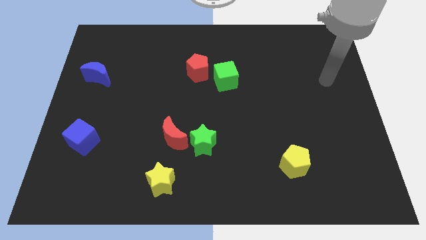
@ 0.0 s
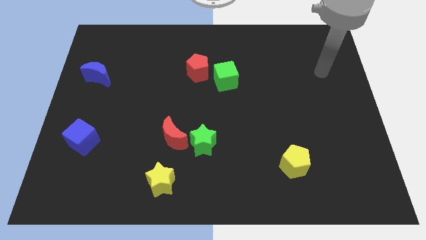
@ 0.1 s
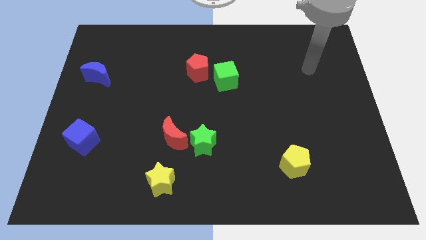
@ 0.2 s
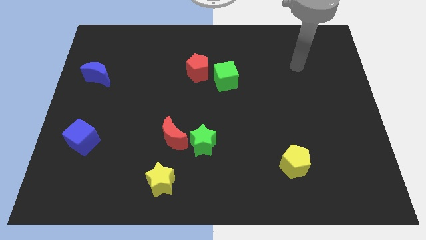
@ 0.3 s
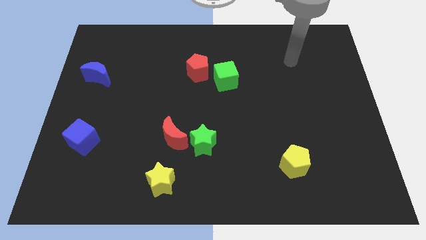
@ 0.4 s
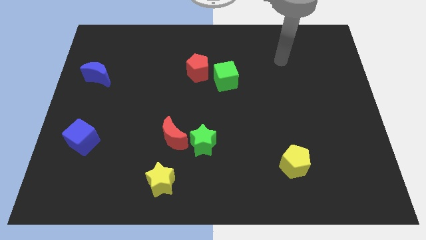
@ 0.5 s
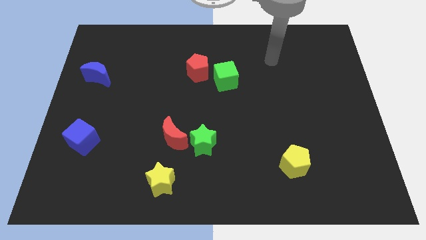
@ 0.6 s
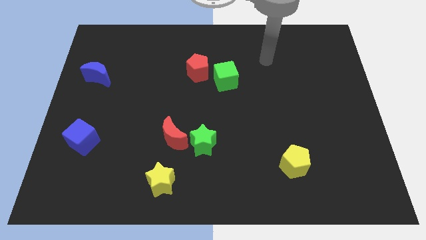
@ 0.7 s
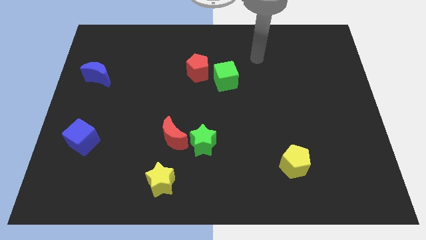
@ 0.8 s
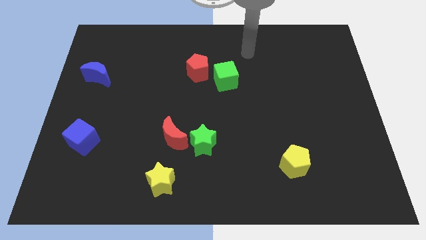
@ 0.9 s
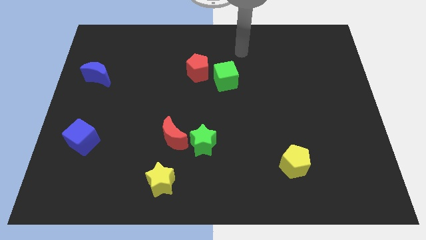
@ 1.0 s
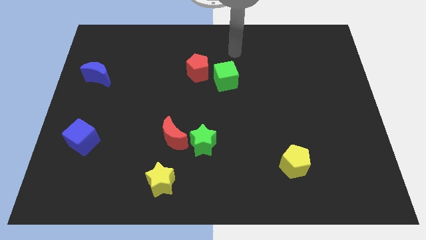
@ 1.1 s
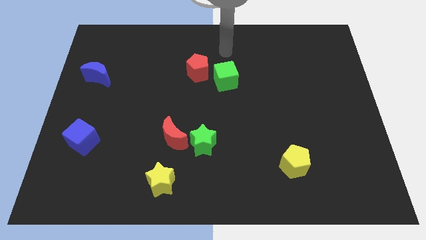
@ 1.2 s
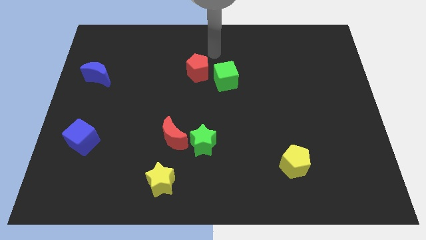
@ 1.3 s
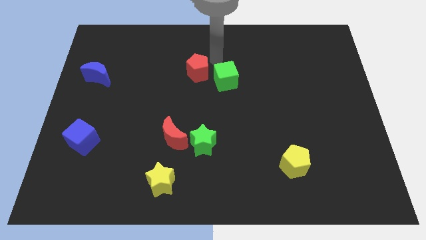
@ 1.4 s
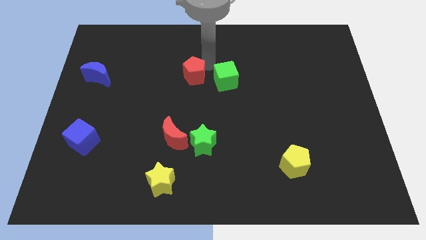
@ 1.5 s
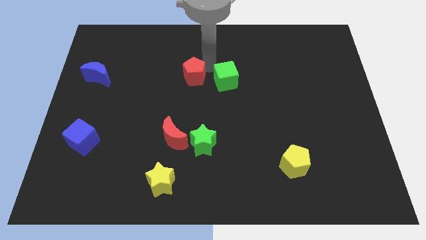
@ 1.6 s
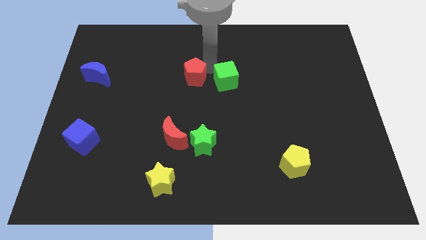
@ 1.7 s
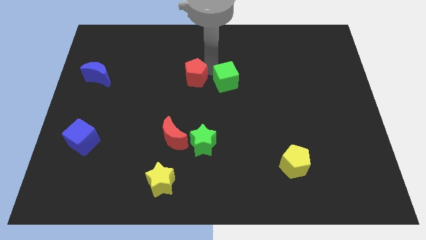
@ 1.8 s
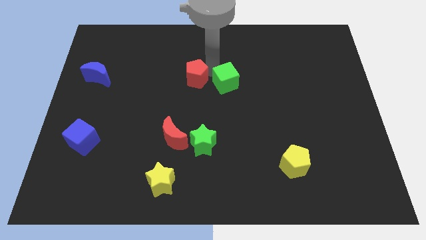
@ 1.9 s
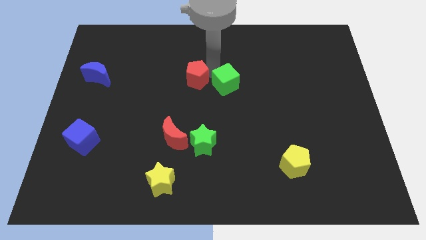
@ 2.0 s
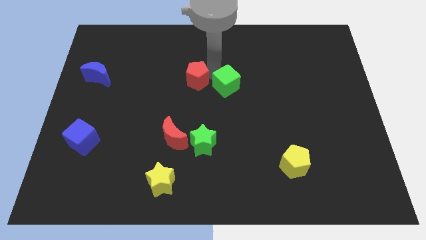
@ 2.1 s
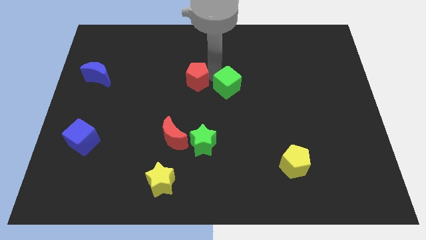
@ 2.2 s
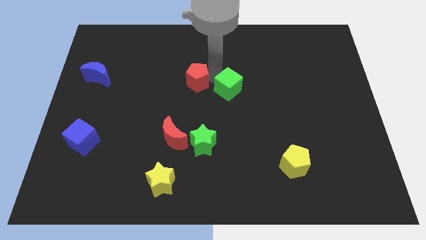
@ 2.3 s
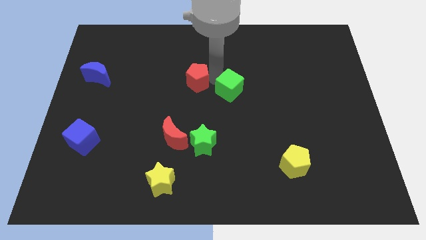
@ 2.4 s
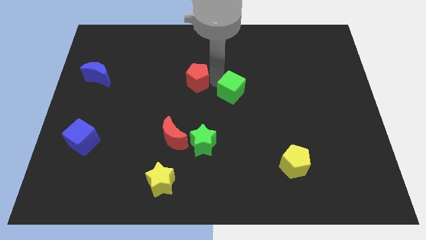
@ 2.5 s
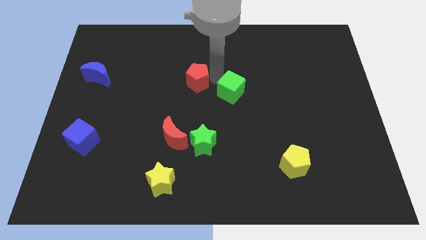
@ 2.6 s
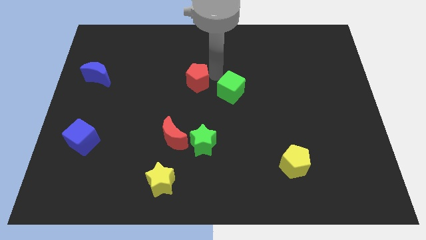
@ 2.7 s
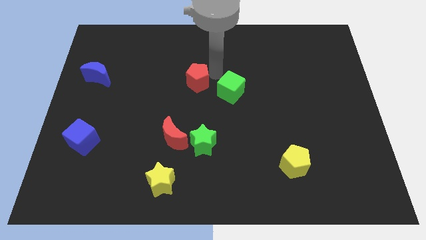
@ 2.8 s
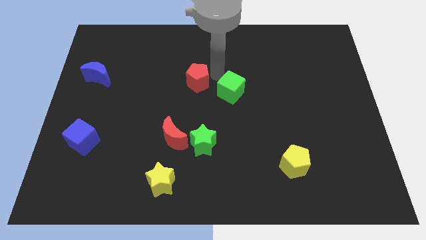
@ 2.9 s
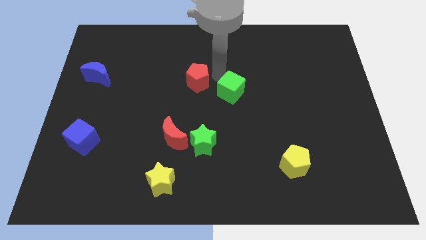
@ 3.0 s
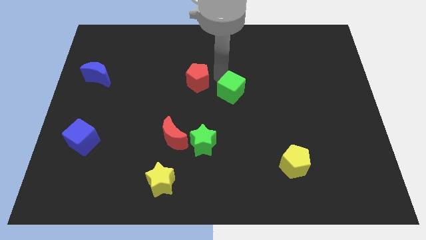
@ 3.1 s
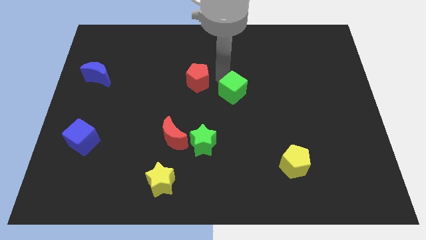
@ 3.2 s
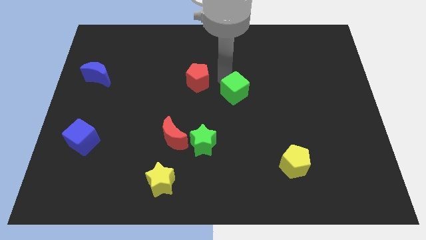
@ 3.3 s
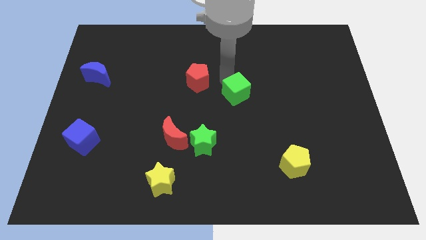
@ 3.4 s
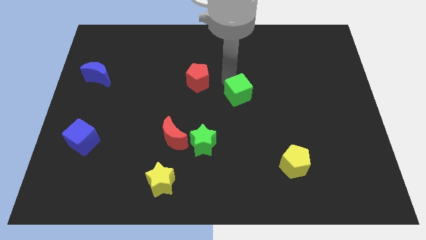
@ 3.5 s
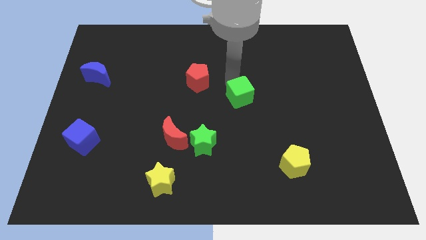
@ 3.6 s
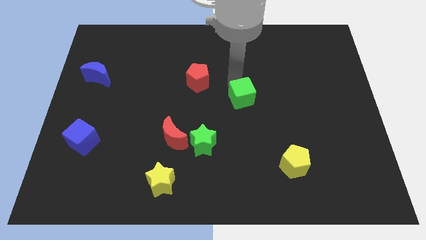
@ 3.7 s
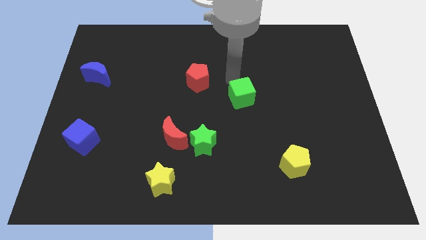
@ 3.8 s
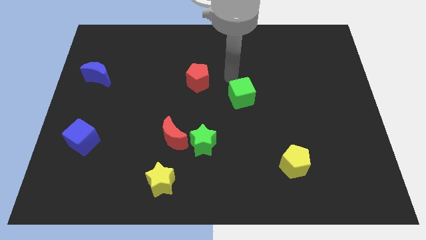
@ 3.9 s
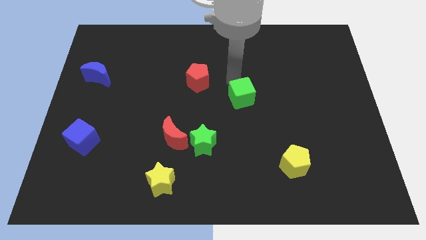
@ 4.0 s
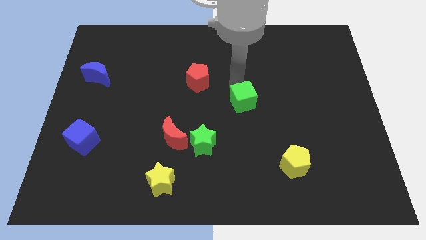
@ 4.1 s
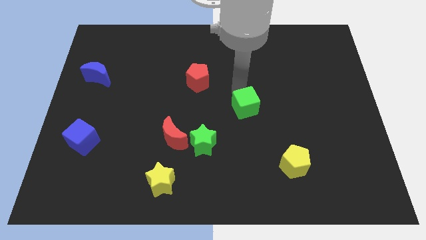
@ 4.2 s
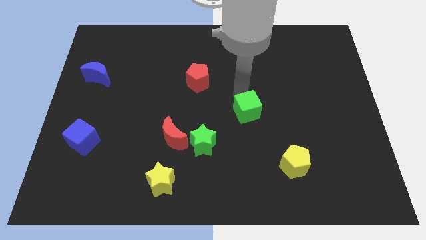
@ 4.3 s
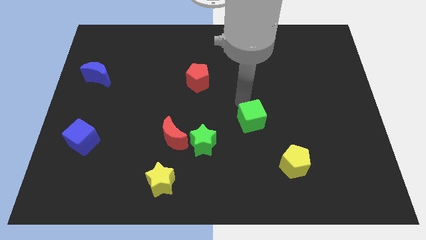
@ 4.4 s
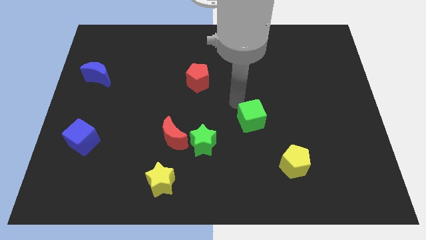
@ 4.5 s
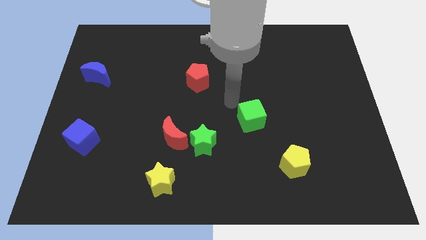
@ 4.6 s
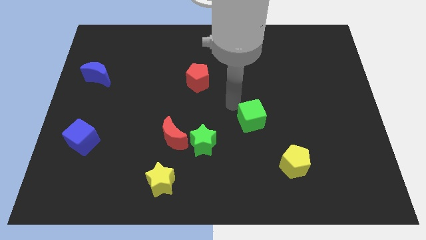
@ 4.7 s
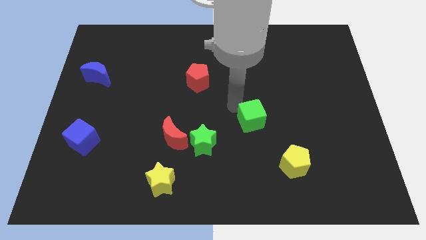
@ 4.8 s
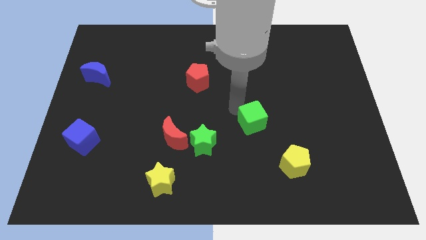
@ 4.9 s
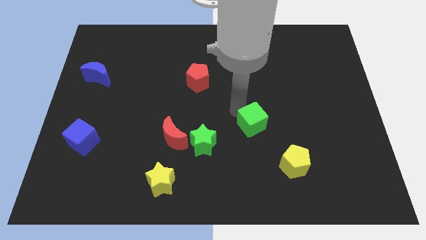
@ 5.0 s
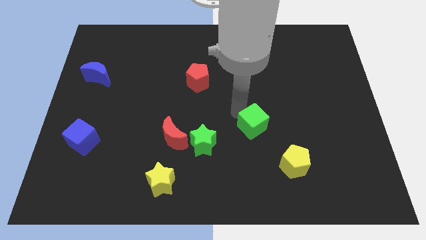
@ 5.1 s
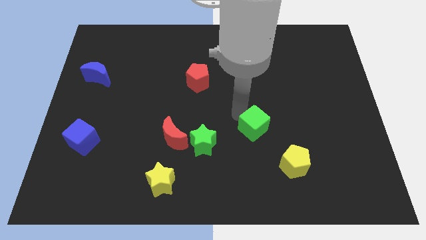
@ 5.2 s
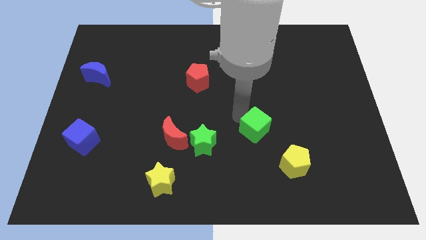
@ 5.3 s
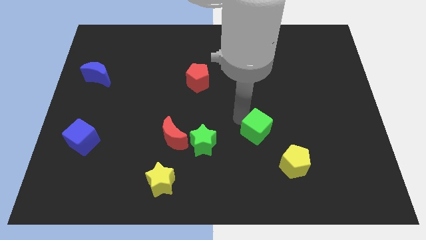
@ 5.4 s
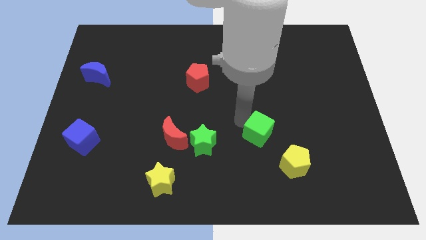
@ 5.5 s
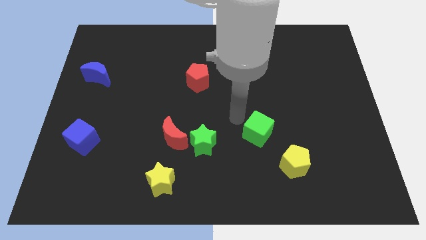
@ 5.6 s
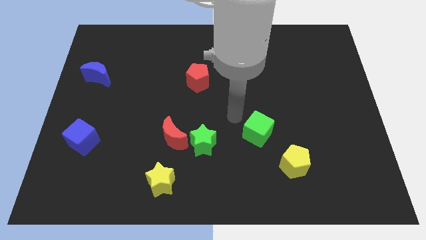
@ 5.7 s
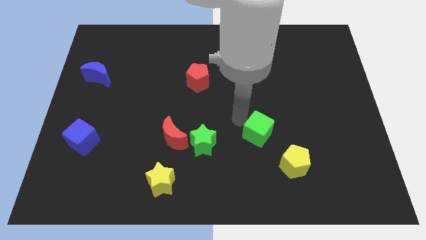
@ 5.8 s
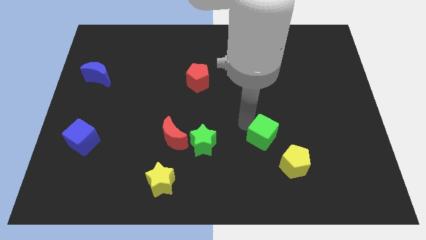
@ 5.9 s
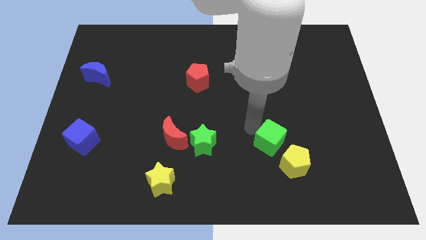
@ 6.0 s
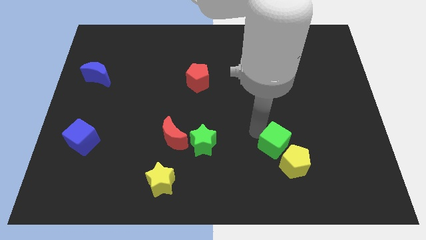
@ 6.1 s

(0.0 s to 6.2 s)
move the green cube close to the yellow pentagon

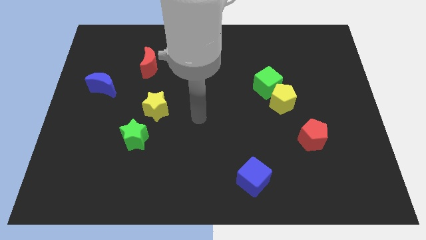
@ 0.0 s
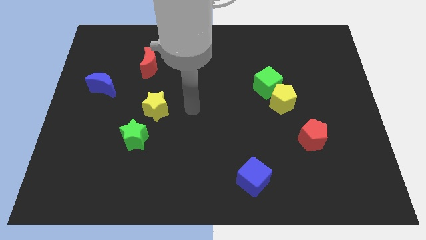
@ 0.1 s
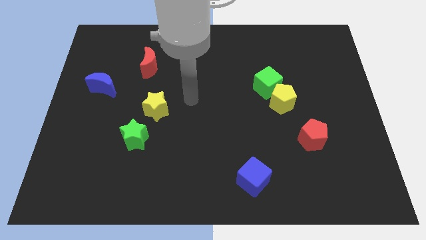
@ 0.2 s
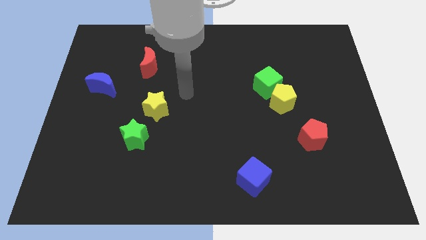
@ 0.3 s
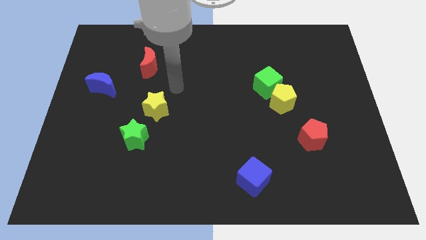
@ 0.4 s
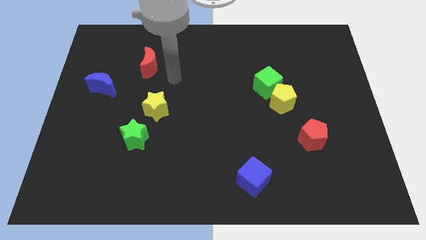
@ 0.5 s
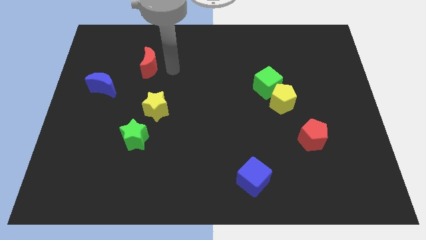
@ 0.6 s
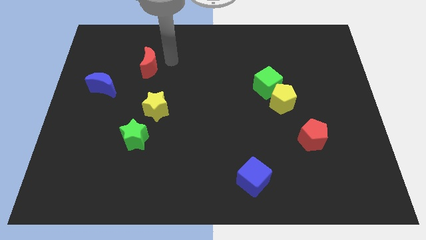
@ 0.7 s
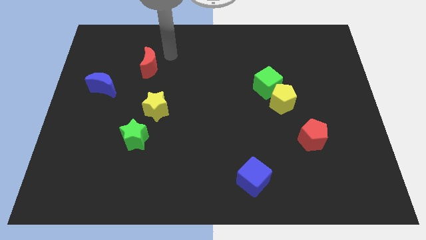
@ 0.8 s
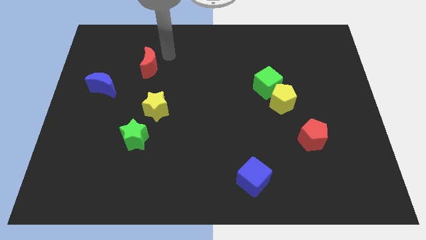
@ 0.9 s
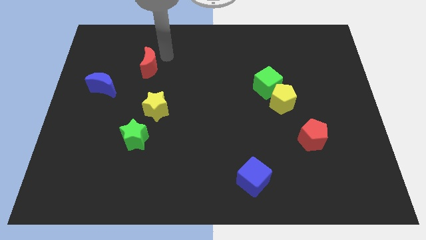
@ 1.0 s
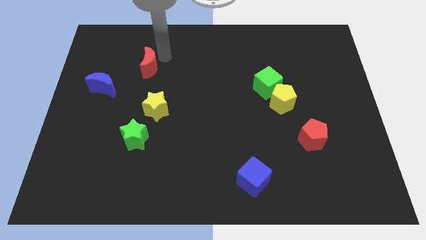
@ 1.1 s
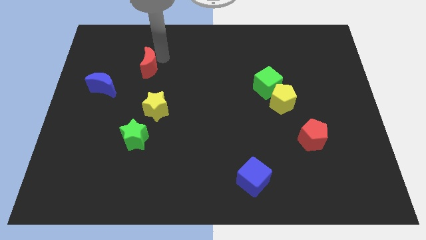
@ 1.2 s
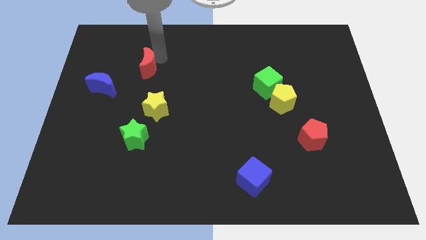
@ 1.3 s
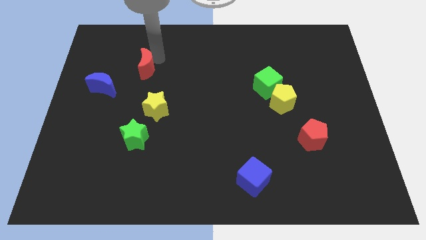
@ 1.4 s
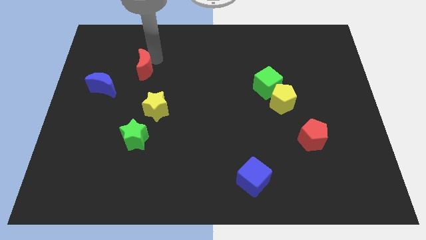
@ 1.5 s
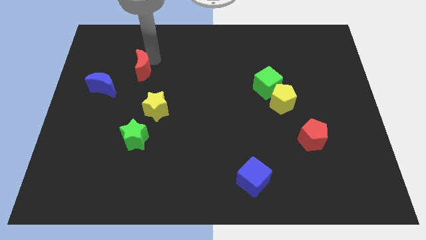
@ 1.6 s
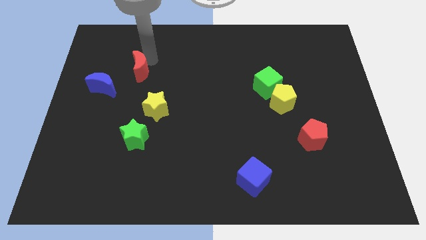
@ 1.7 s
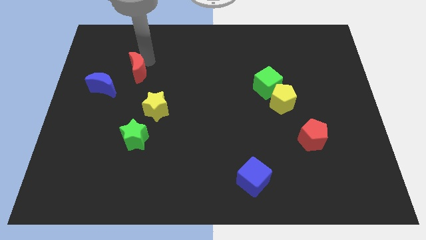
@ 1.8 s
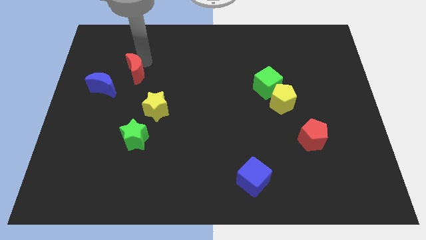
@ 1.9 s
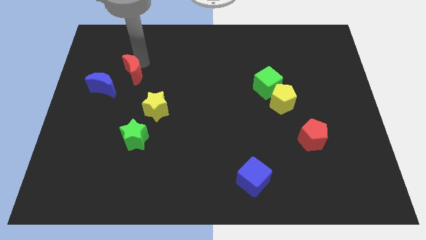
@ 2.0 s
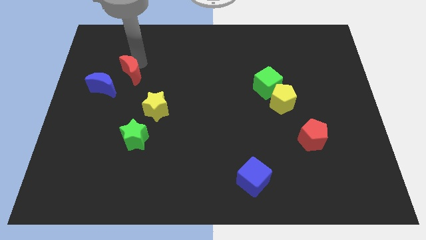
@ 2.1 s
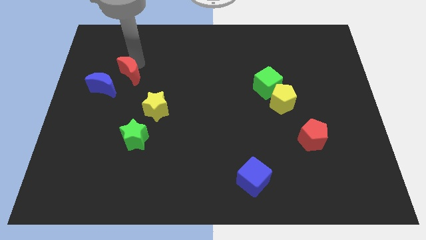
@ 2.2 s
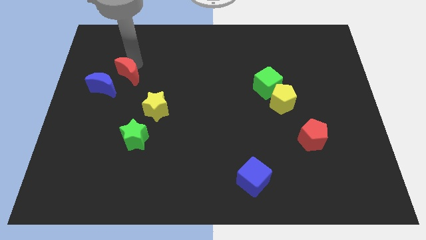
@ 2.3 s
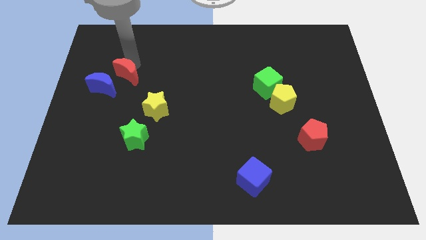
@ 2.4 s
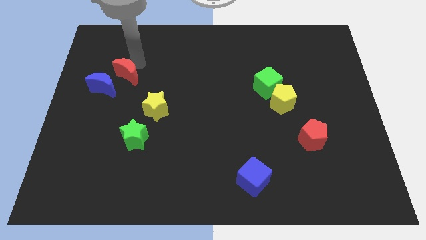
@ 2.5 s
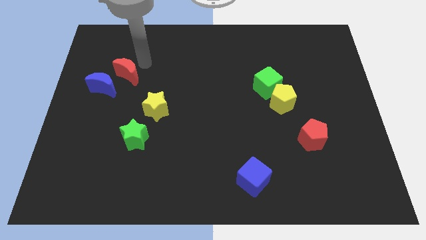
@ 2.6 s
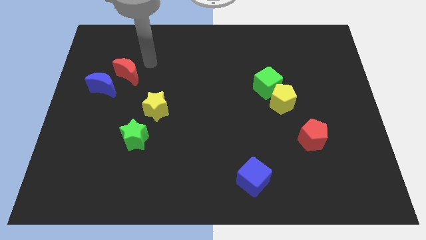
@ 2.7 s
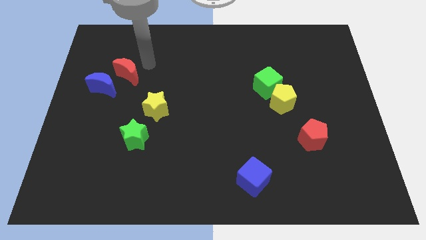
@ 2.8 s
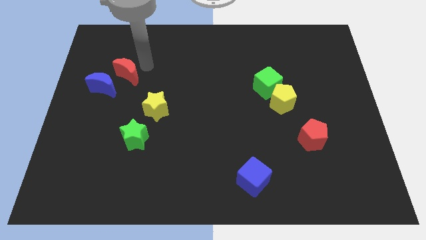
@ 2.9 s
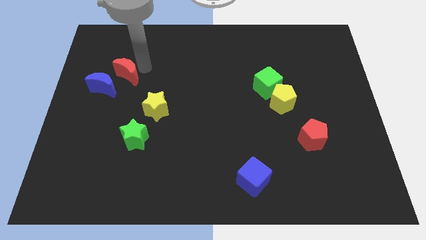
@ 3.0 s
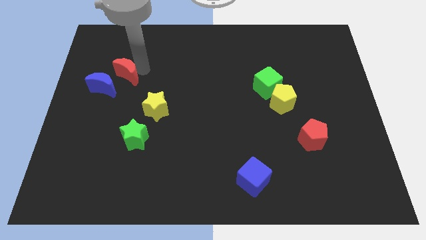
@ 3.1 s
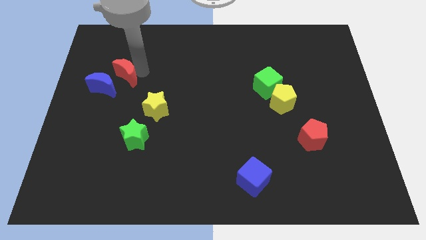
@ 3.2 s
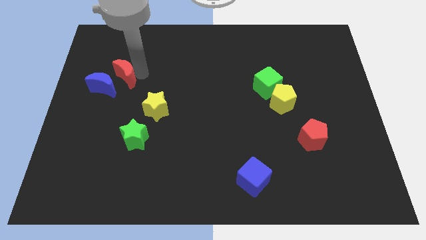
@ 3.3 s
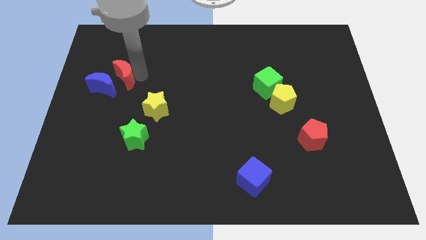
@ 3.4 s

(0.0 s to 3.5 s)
move the red moon to the blue moon
